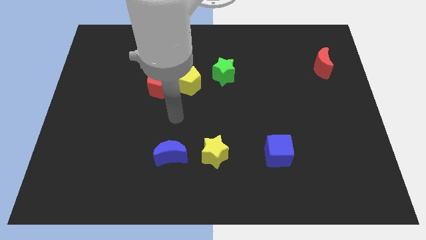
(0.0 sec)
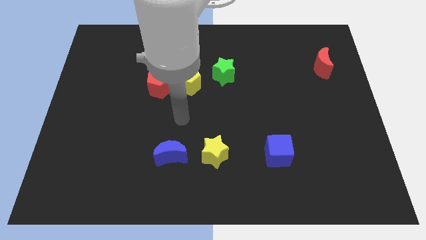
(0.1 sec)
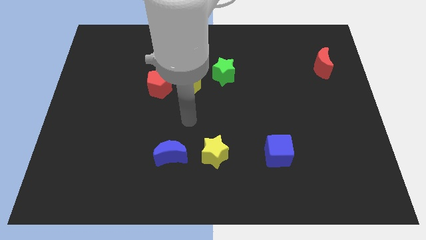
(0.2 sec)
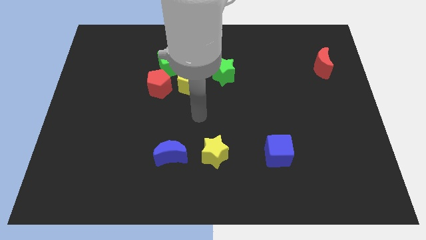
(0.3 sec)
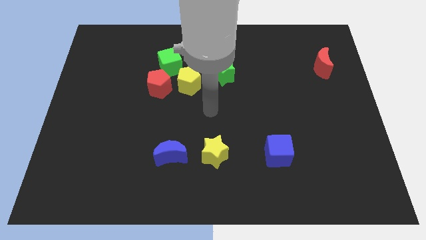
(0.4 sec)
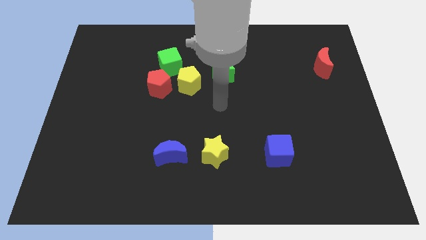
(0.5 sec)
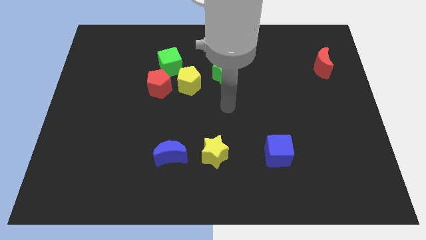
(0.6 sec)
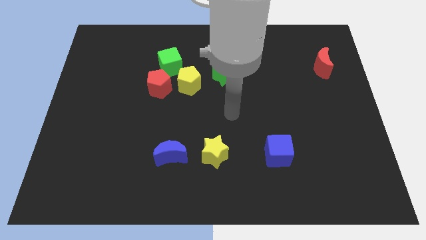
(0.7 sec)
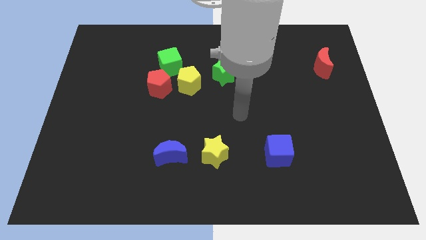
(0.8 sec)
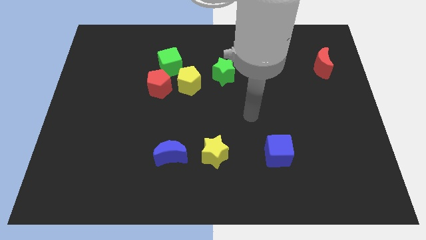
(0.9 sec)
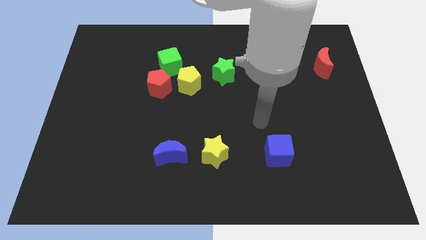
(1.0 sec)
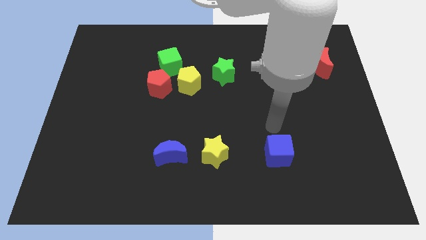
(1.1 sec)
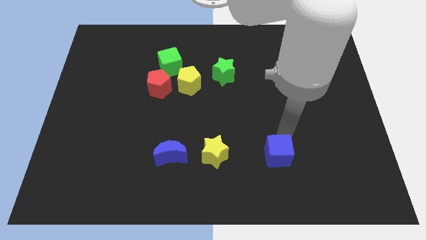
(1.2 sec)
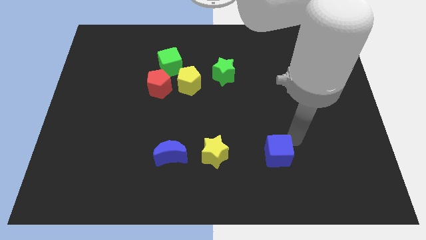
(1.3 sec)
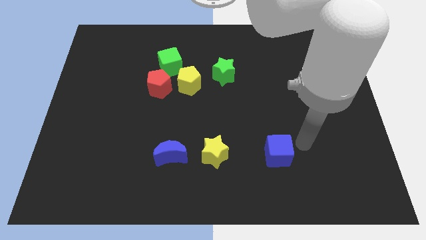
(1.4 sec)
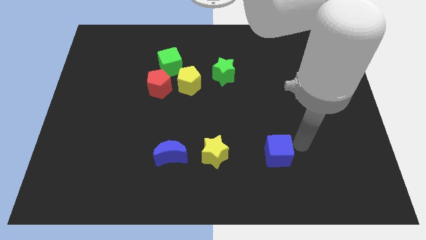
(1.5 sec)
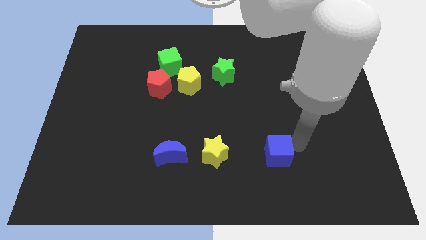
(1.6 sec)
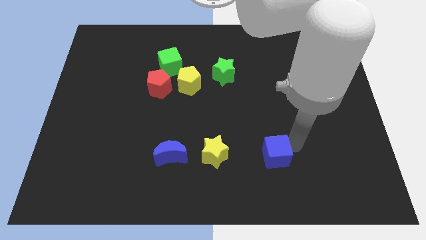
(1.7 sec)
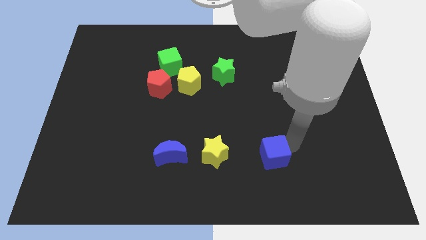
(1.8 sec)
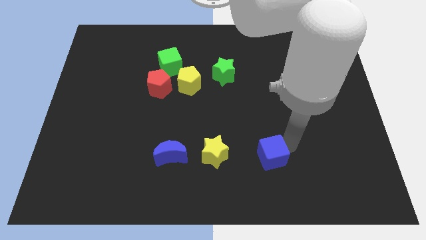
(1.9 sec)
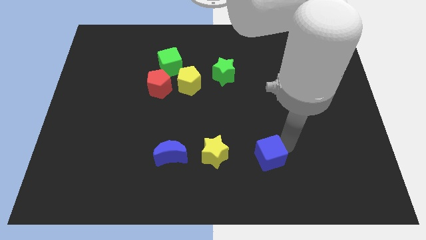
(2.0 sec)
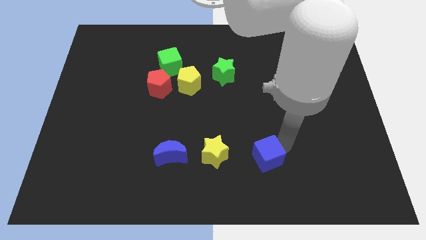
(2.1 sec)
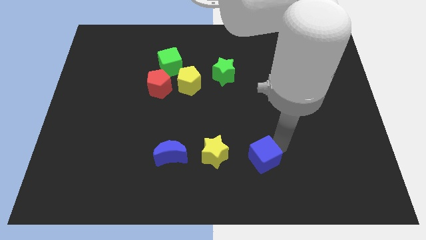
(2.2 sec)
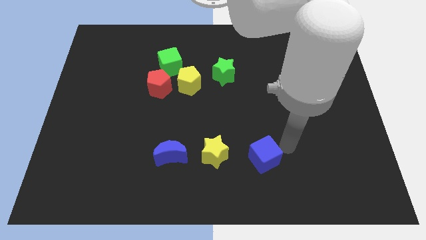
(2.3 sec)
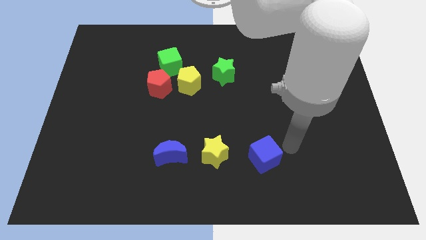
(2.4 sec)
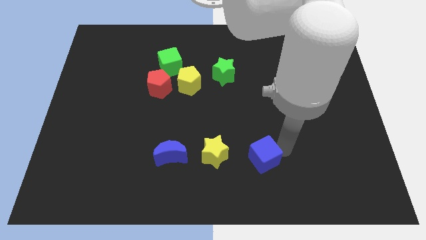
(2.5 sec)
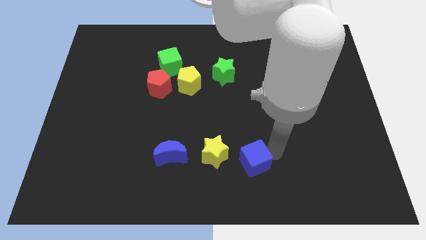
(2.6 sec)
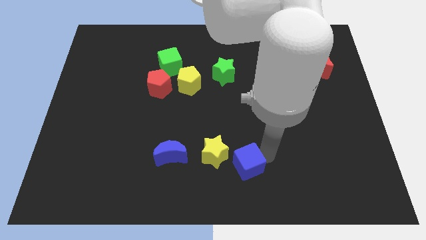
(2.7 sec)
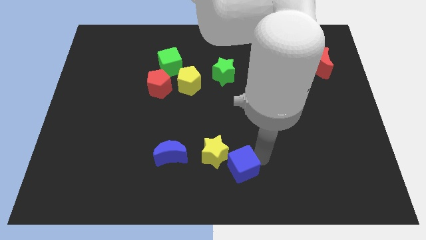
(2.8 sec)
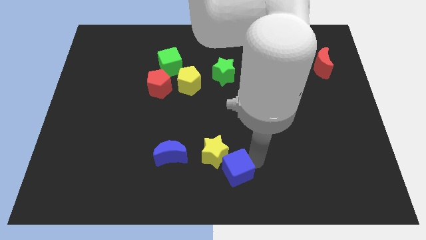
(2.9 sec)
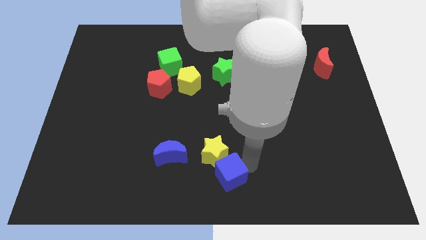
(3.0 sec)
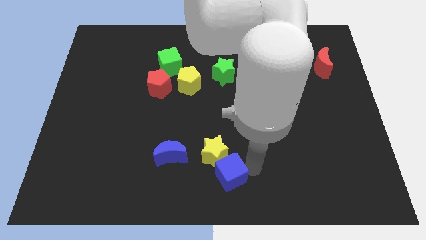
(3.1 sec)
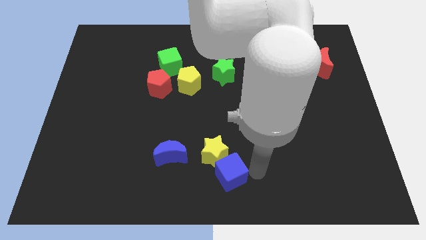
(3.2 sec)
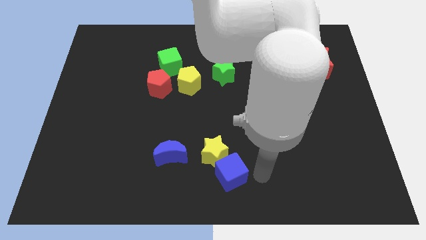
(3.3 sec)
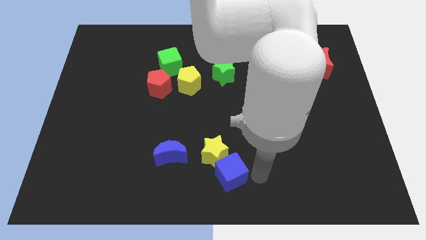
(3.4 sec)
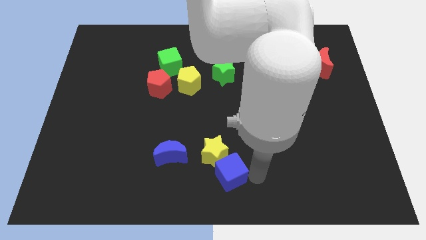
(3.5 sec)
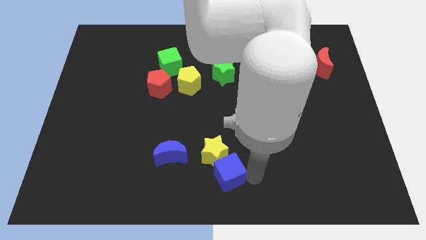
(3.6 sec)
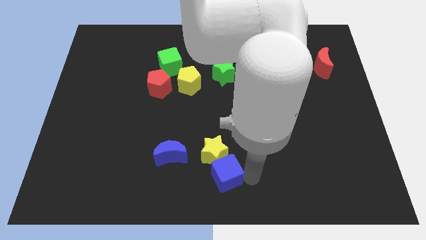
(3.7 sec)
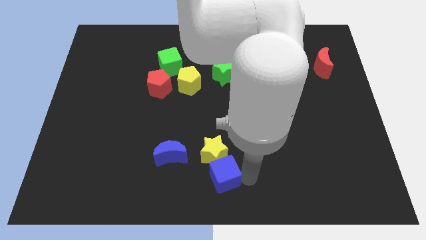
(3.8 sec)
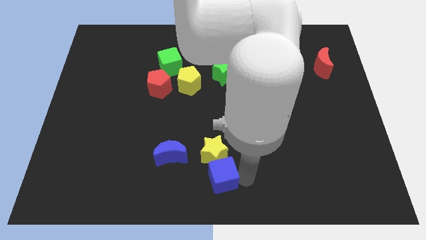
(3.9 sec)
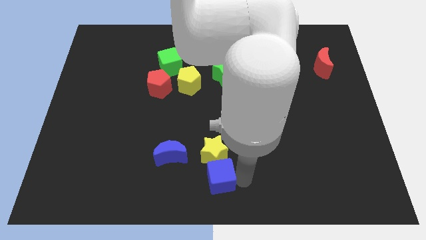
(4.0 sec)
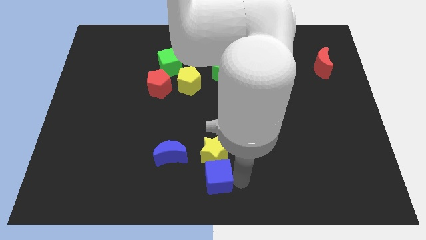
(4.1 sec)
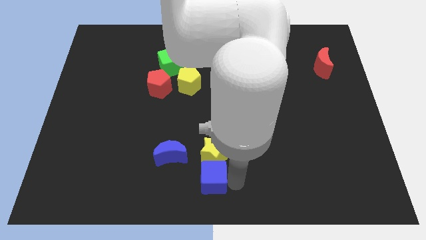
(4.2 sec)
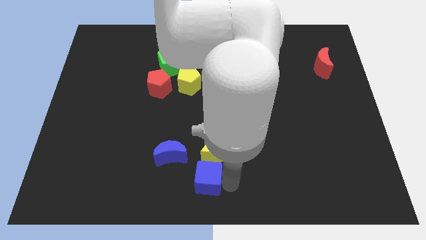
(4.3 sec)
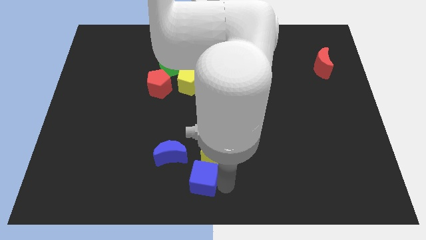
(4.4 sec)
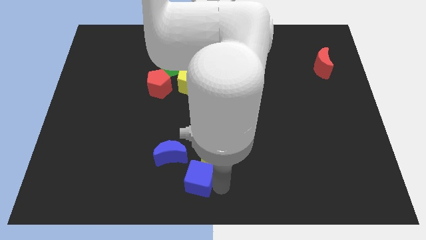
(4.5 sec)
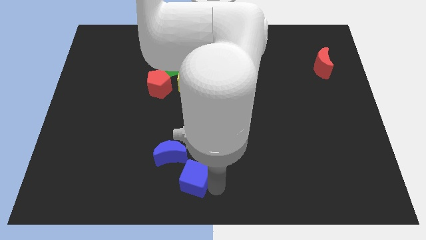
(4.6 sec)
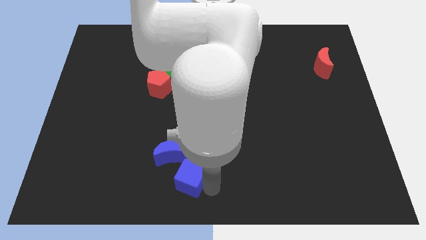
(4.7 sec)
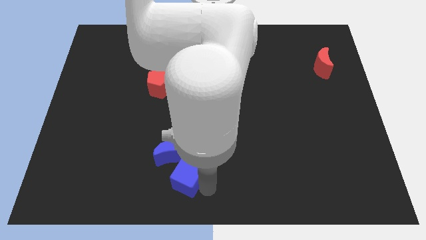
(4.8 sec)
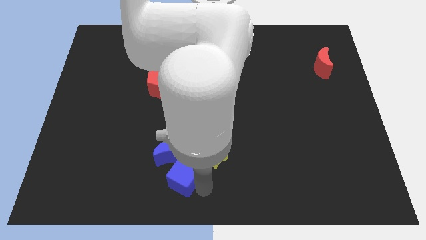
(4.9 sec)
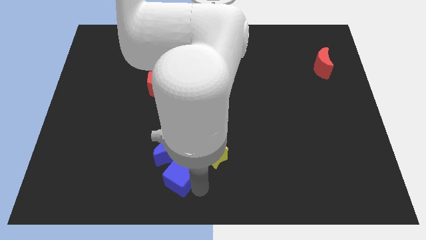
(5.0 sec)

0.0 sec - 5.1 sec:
put the blue cube to the blue moon

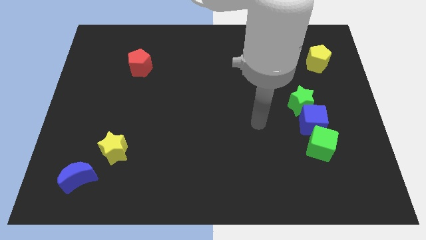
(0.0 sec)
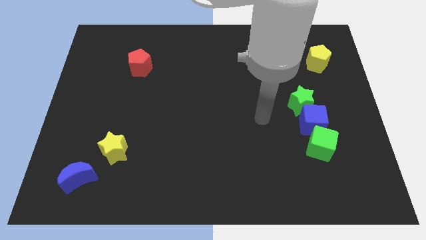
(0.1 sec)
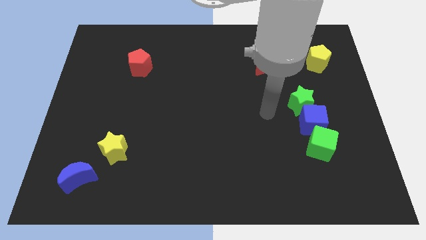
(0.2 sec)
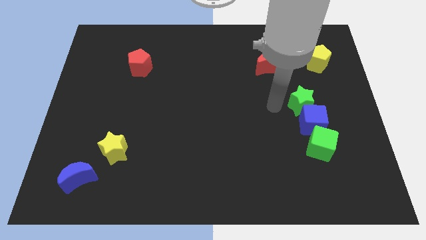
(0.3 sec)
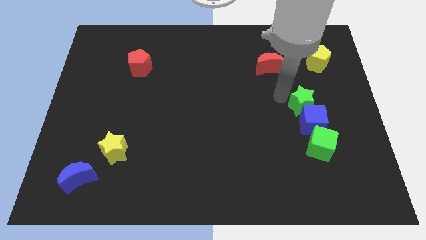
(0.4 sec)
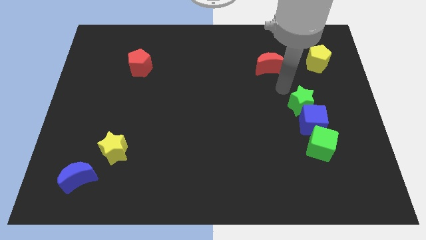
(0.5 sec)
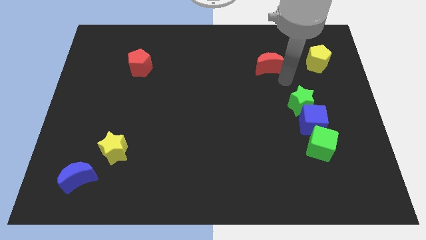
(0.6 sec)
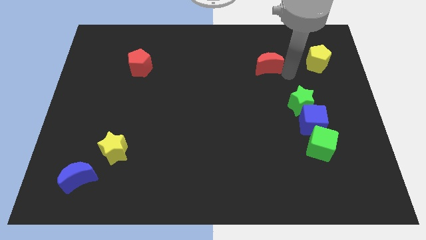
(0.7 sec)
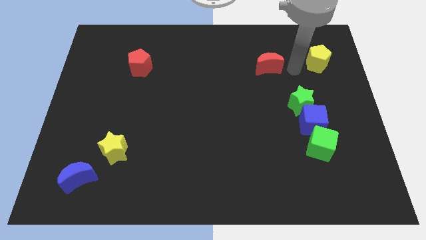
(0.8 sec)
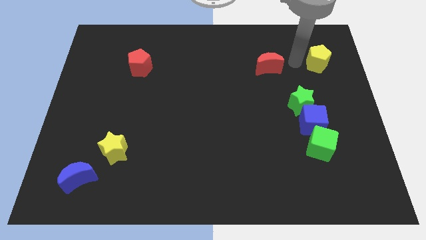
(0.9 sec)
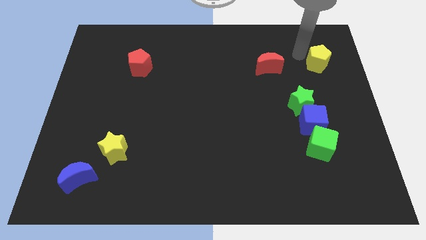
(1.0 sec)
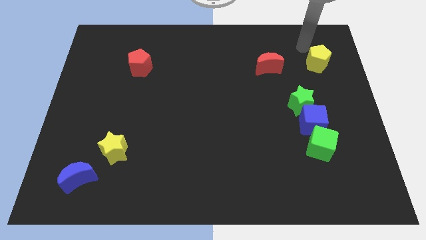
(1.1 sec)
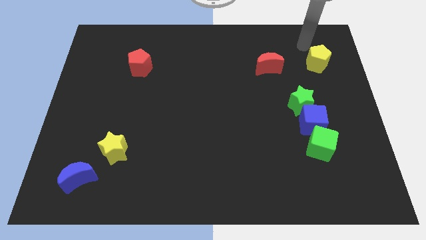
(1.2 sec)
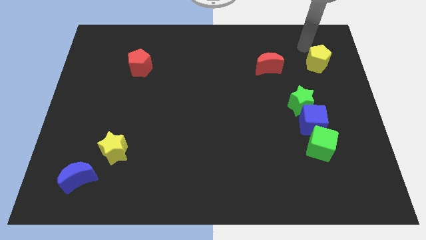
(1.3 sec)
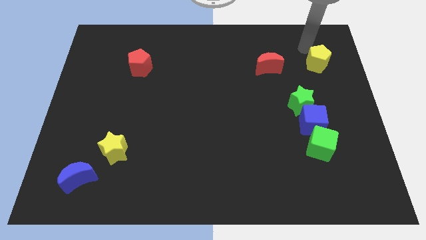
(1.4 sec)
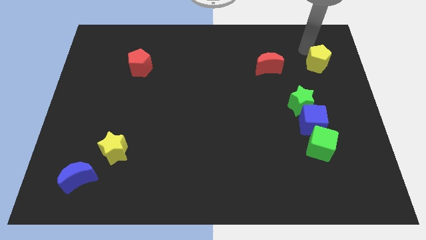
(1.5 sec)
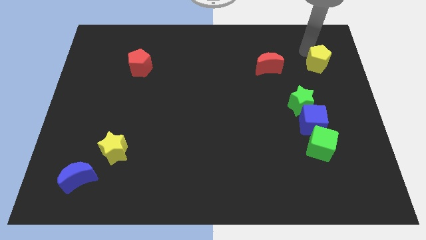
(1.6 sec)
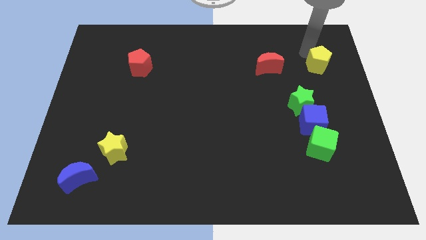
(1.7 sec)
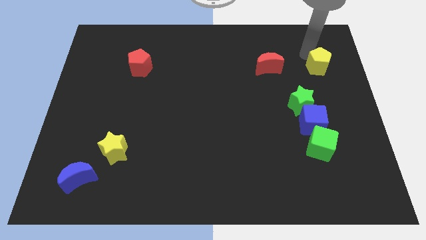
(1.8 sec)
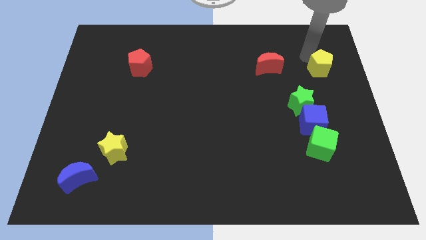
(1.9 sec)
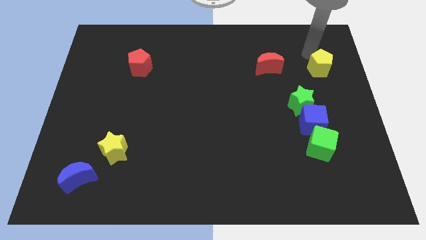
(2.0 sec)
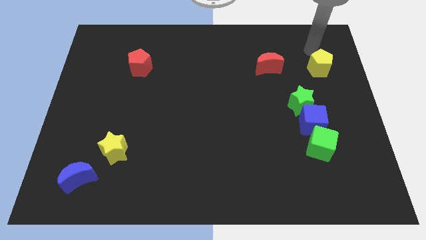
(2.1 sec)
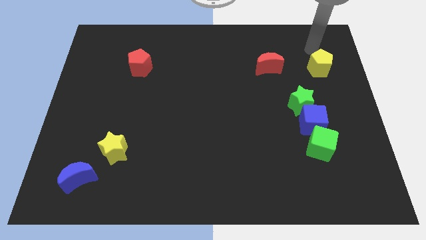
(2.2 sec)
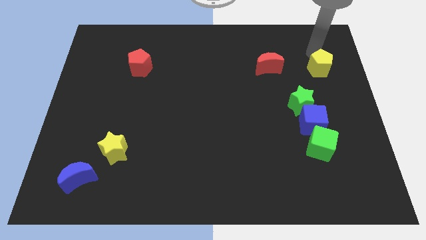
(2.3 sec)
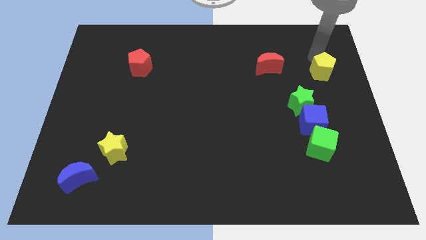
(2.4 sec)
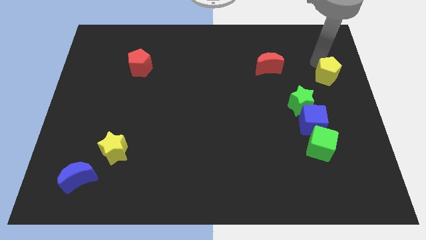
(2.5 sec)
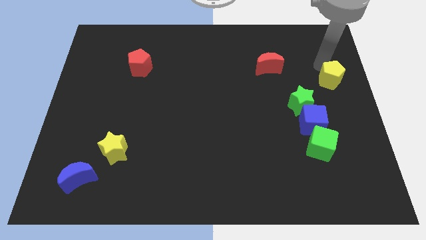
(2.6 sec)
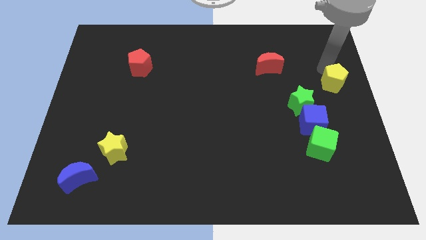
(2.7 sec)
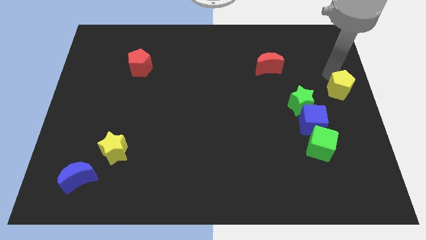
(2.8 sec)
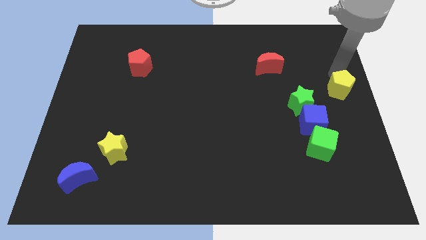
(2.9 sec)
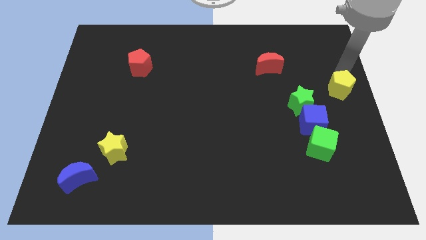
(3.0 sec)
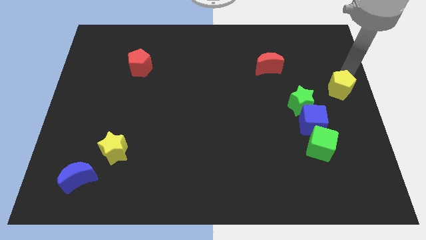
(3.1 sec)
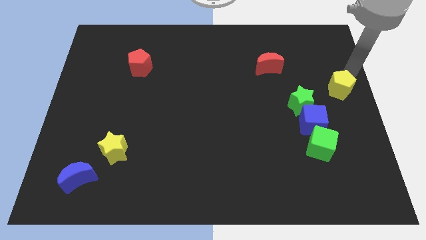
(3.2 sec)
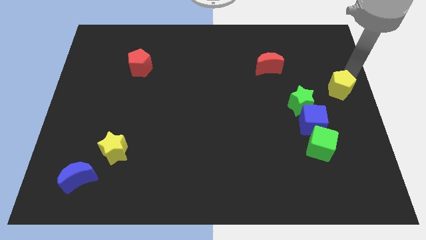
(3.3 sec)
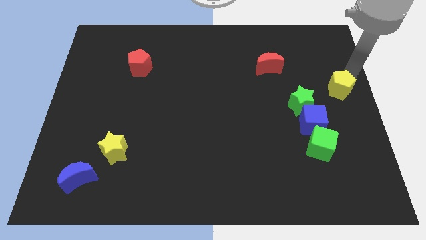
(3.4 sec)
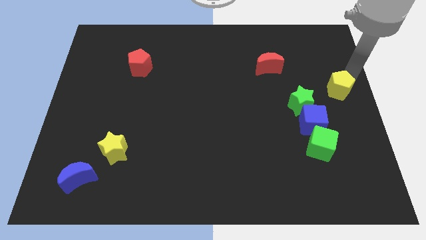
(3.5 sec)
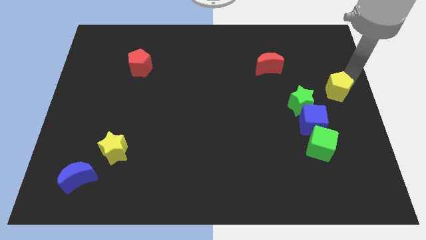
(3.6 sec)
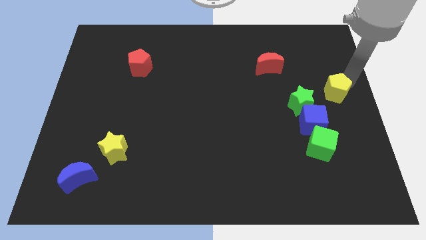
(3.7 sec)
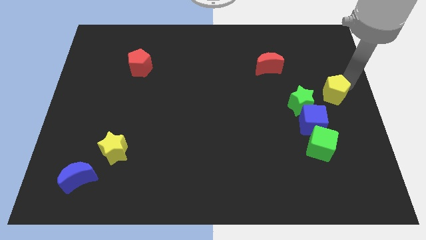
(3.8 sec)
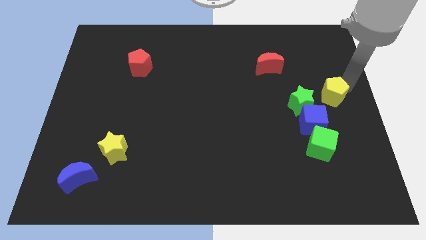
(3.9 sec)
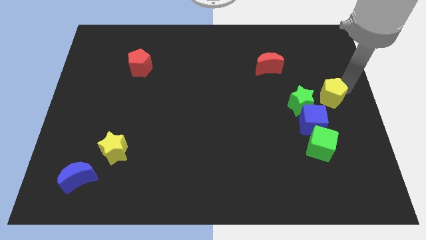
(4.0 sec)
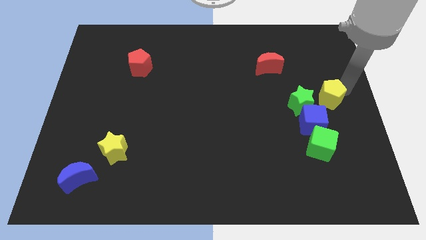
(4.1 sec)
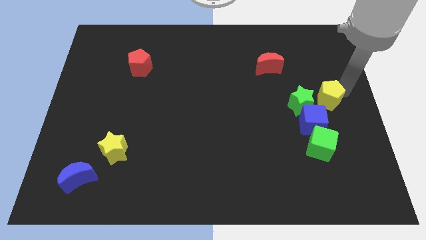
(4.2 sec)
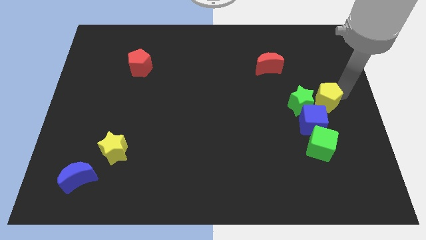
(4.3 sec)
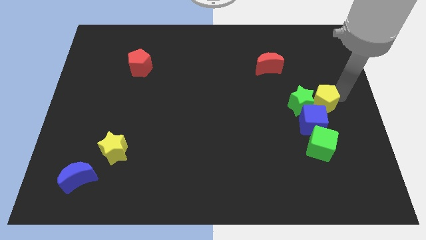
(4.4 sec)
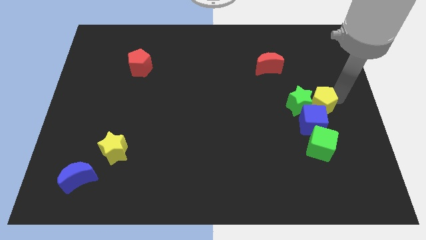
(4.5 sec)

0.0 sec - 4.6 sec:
move the yellow pentagon next to the blue cube
